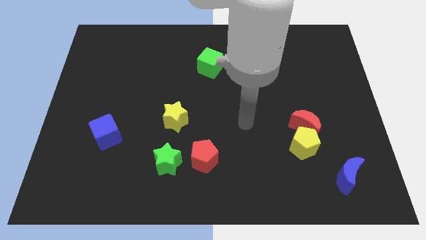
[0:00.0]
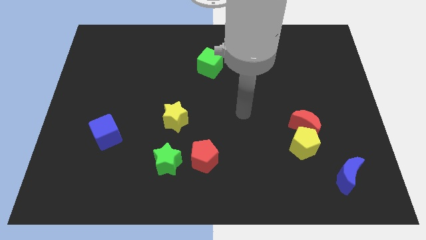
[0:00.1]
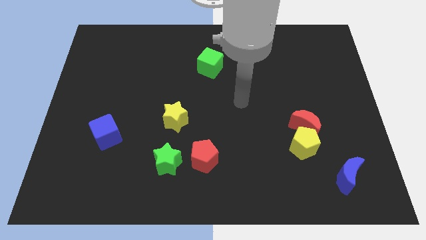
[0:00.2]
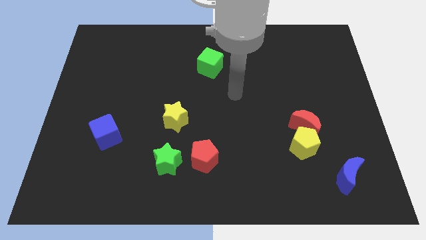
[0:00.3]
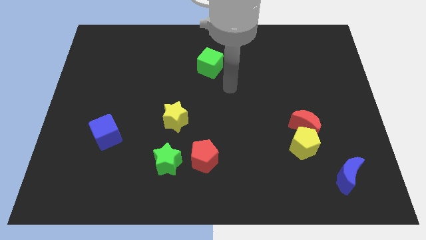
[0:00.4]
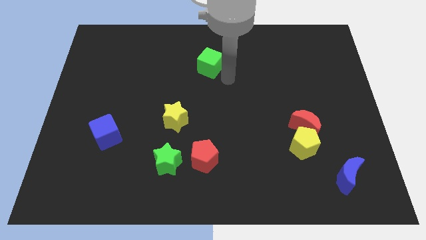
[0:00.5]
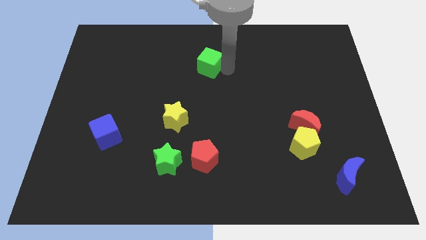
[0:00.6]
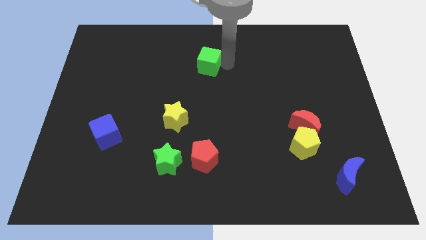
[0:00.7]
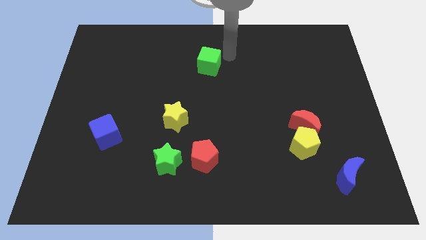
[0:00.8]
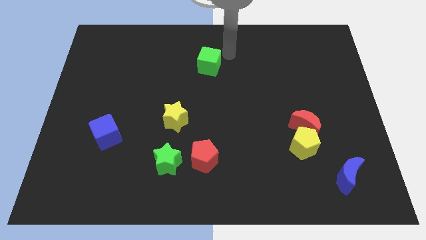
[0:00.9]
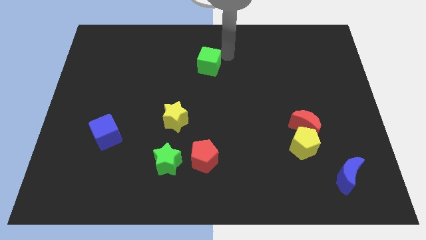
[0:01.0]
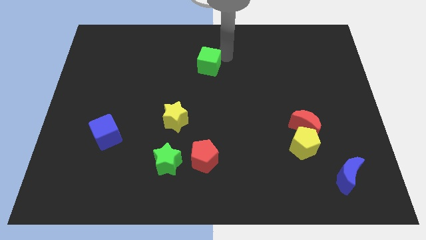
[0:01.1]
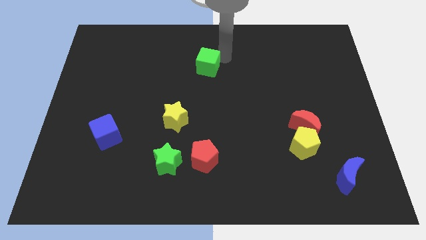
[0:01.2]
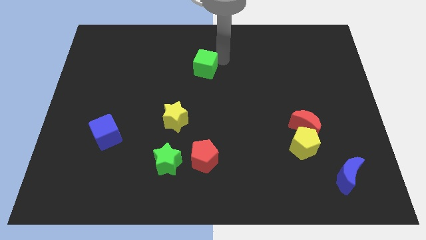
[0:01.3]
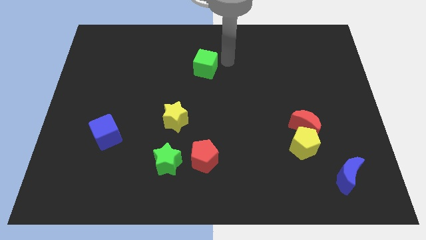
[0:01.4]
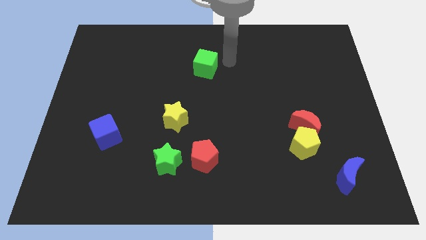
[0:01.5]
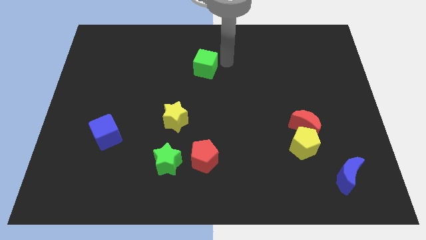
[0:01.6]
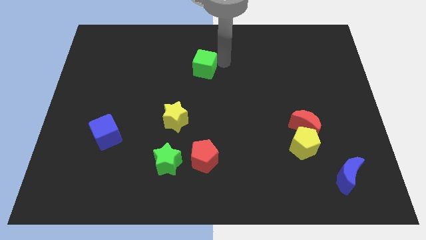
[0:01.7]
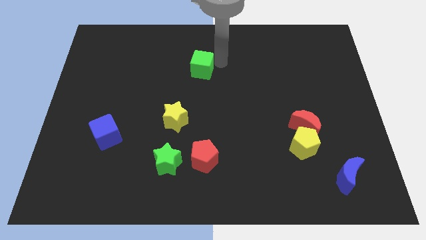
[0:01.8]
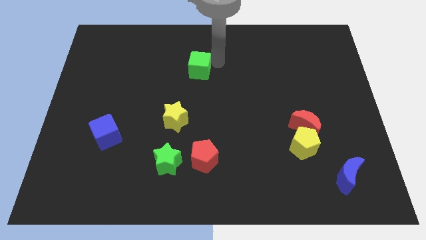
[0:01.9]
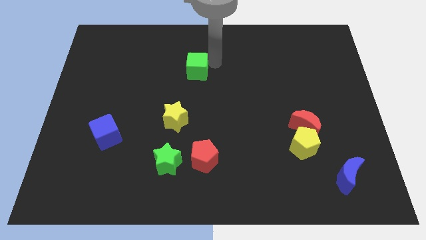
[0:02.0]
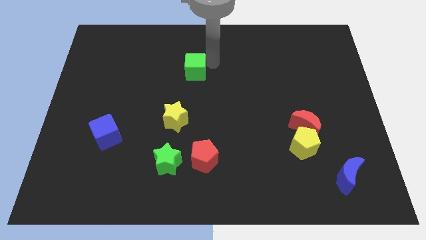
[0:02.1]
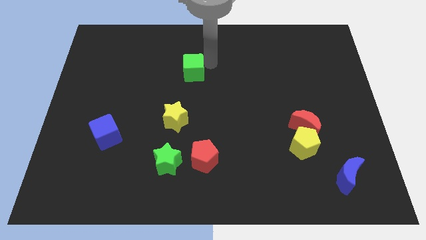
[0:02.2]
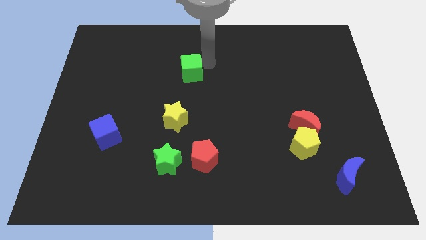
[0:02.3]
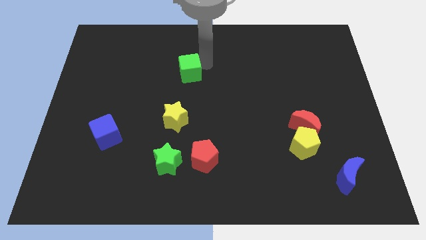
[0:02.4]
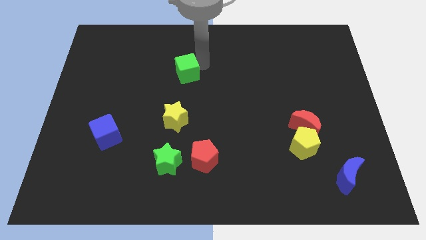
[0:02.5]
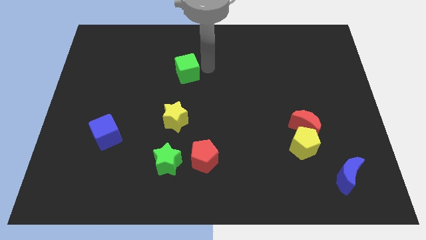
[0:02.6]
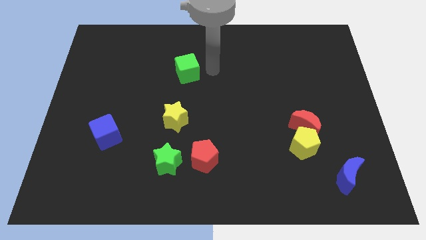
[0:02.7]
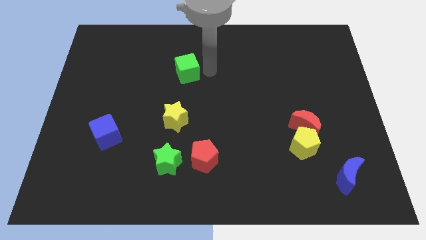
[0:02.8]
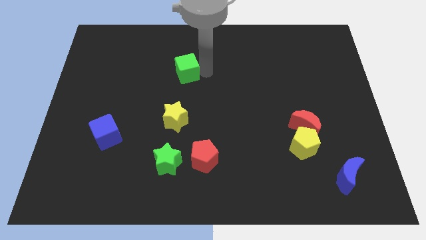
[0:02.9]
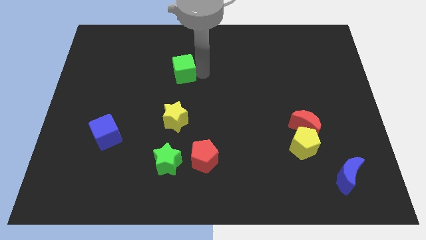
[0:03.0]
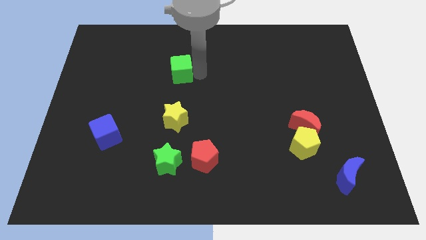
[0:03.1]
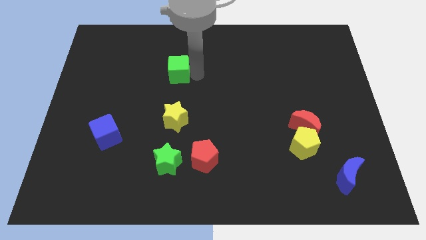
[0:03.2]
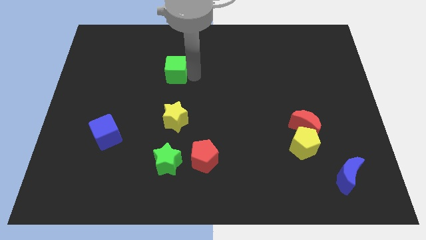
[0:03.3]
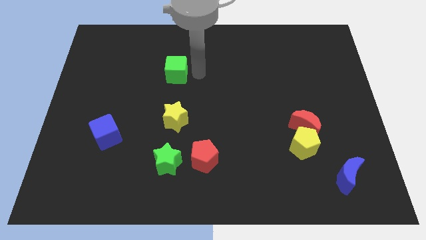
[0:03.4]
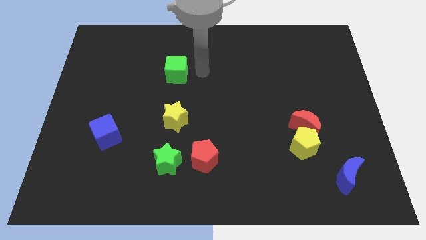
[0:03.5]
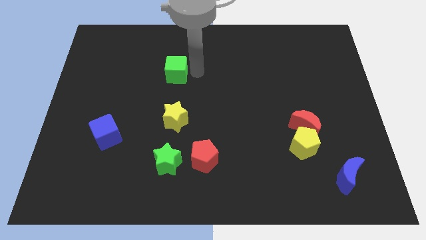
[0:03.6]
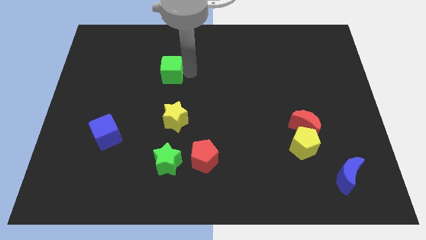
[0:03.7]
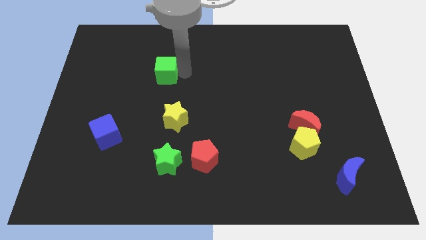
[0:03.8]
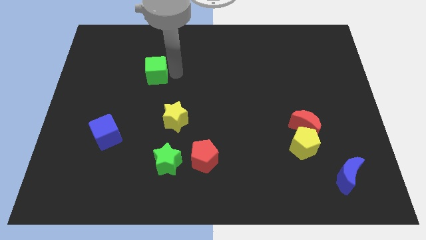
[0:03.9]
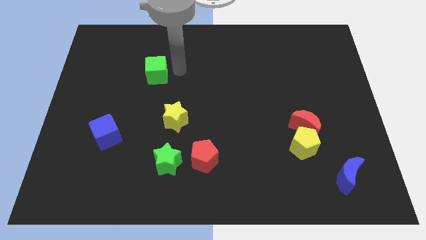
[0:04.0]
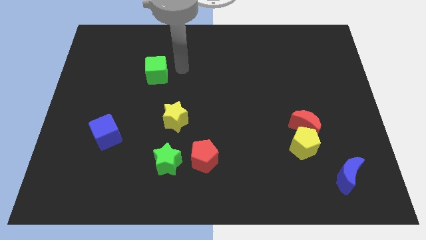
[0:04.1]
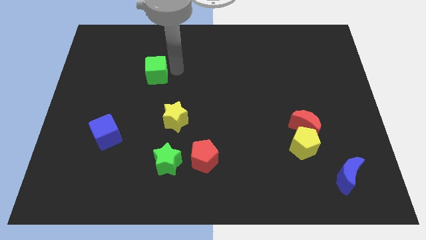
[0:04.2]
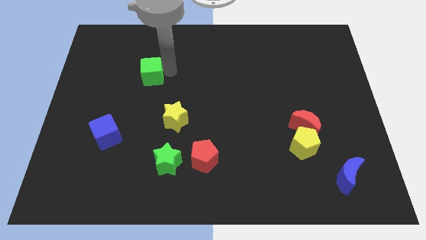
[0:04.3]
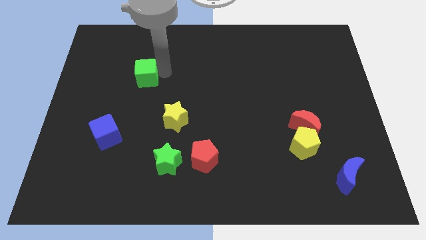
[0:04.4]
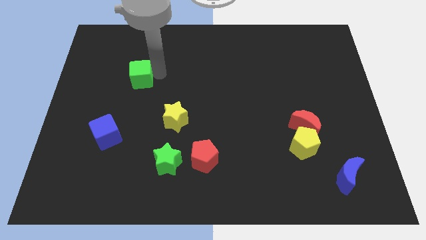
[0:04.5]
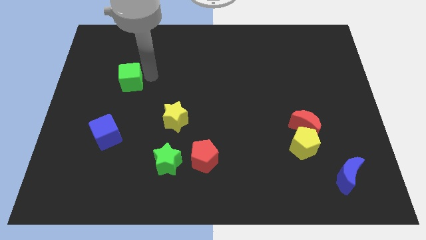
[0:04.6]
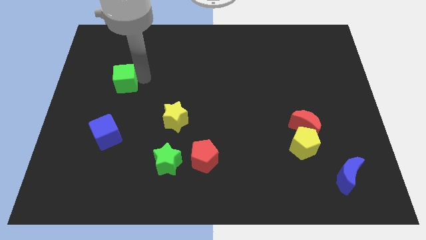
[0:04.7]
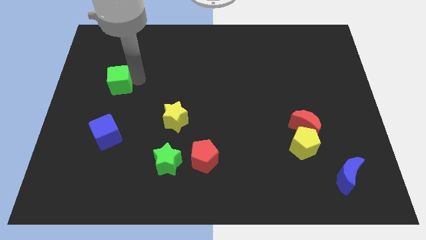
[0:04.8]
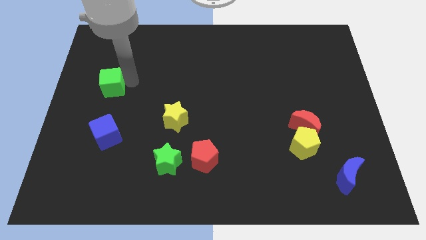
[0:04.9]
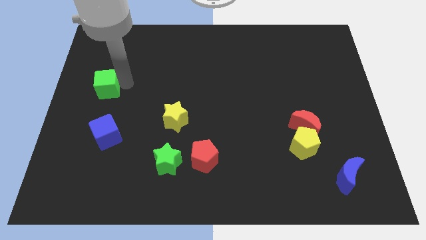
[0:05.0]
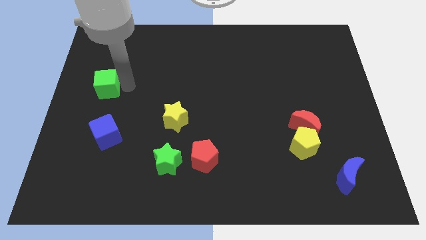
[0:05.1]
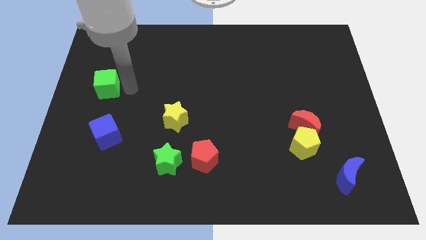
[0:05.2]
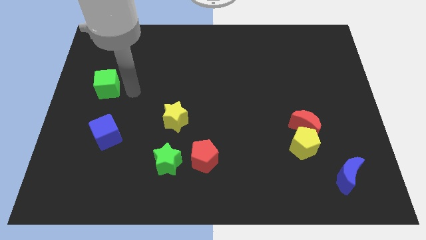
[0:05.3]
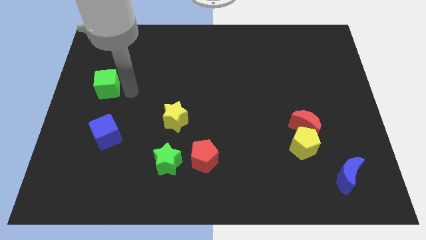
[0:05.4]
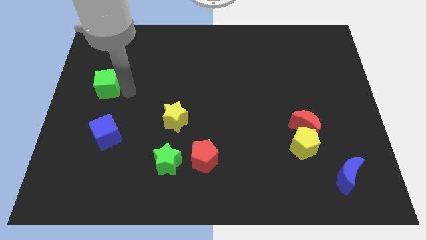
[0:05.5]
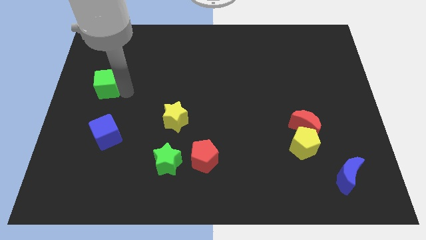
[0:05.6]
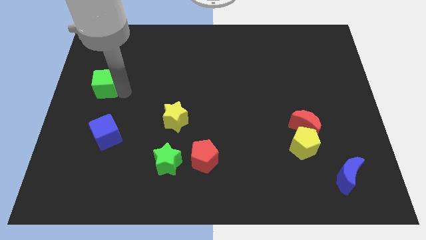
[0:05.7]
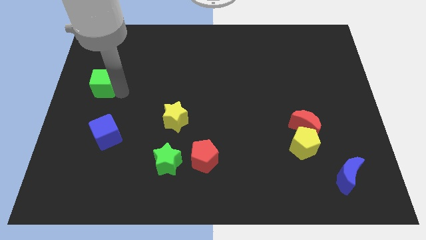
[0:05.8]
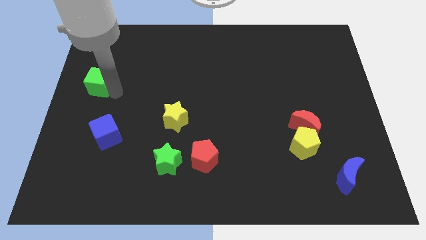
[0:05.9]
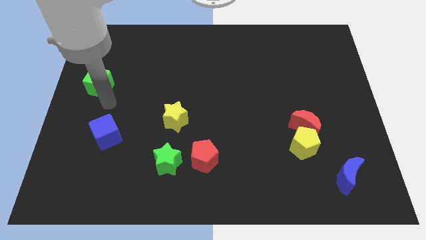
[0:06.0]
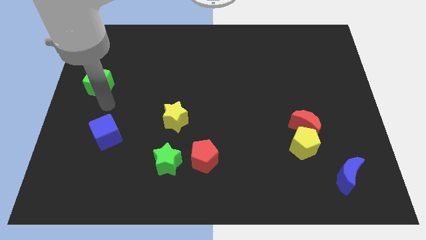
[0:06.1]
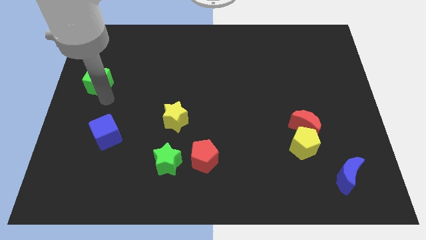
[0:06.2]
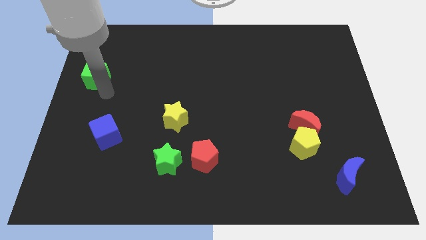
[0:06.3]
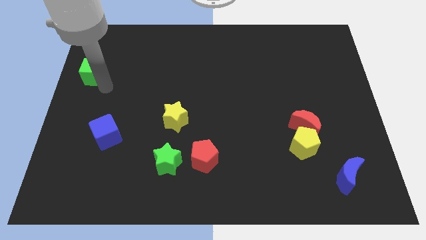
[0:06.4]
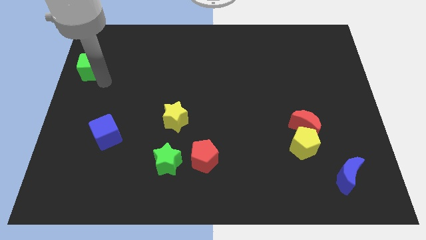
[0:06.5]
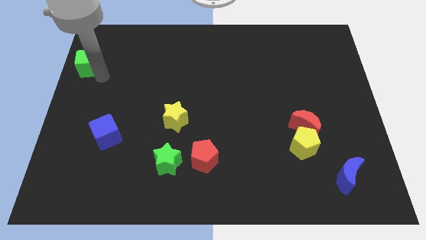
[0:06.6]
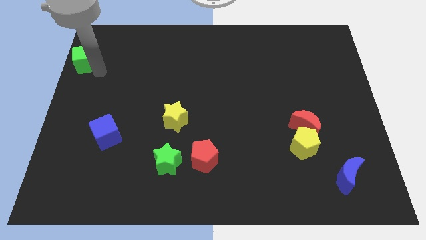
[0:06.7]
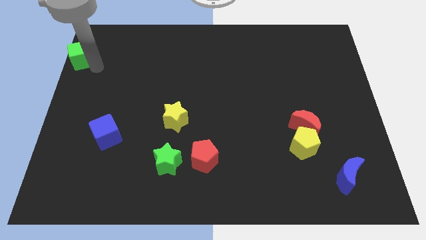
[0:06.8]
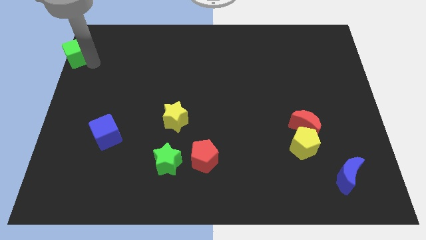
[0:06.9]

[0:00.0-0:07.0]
move the green cube to the top left

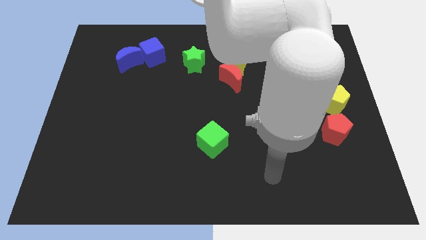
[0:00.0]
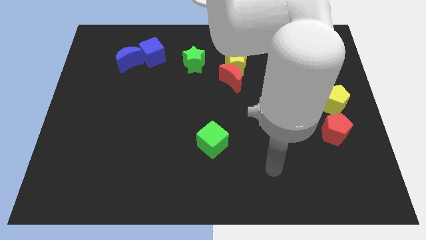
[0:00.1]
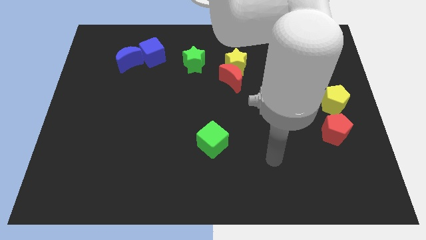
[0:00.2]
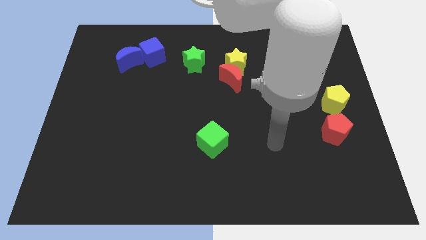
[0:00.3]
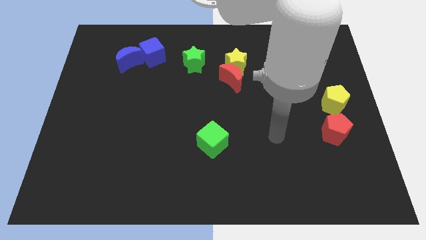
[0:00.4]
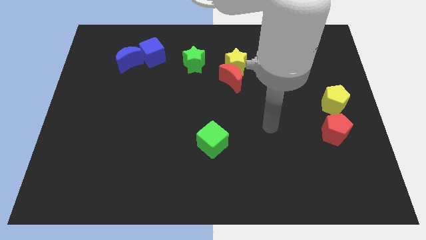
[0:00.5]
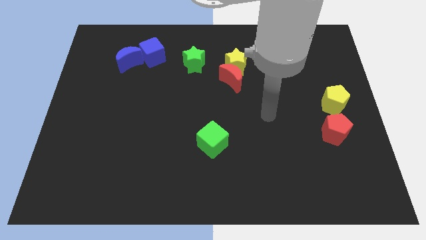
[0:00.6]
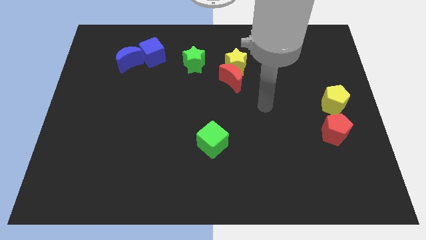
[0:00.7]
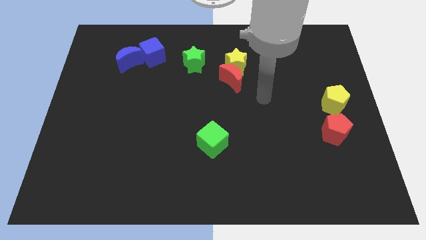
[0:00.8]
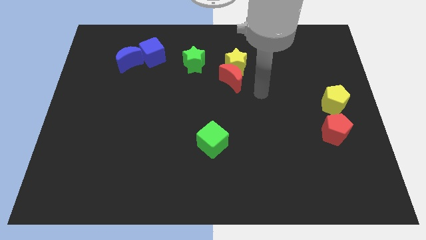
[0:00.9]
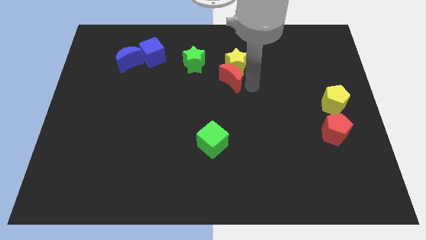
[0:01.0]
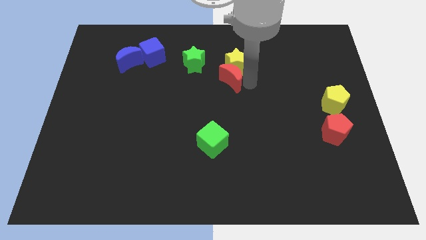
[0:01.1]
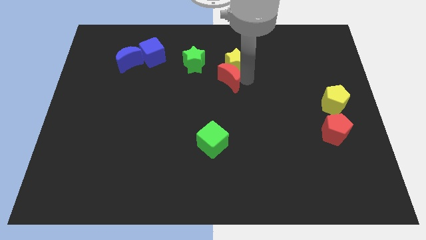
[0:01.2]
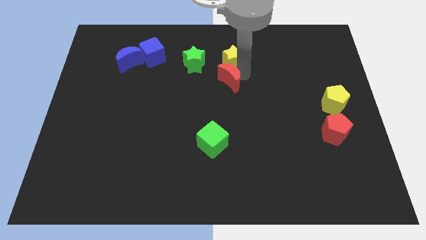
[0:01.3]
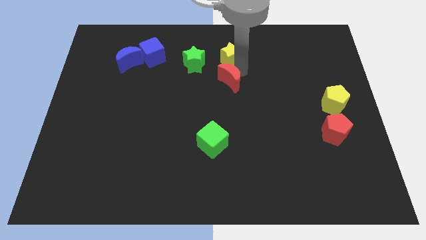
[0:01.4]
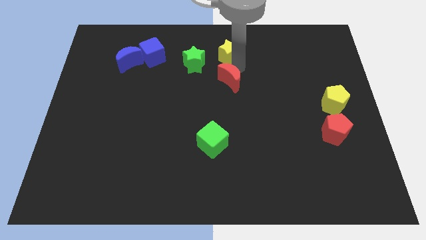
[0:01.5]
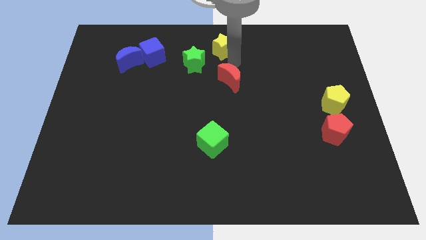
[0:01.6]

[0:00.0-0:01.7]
put the yellow star to the towards your base
